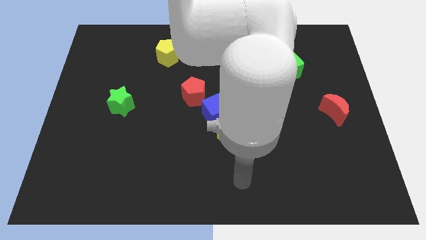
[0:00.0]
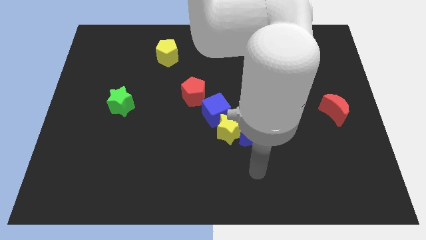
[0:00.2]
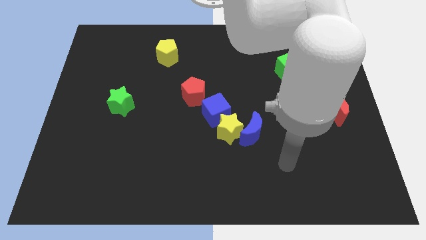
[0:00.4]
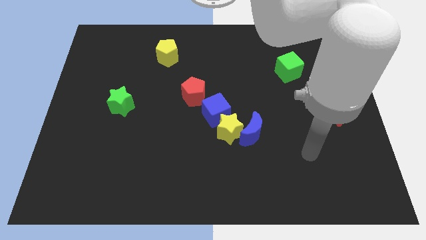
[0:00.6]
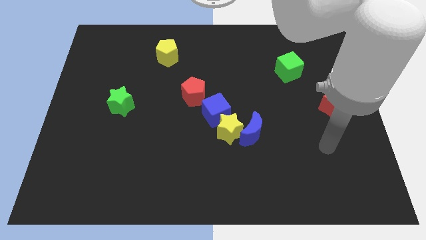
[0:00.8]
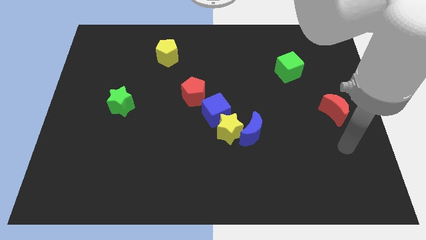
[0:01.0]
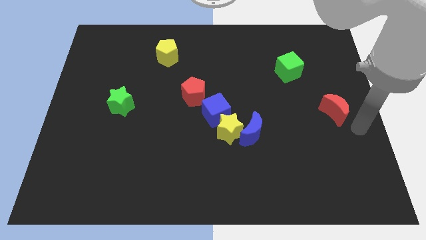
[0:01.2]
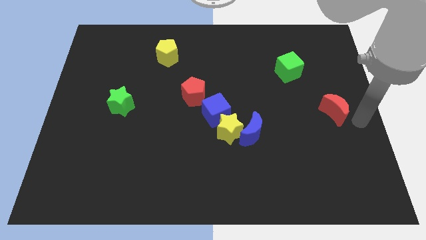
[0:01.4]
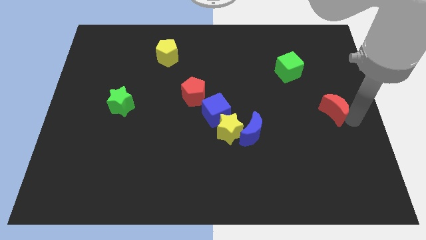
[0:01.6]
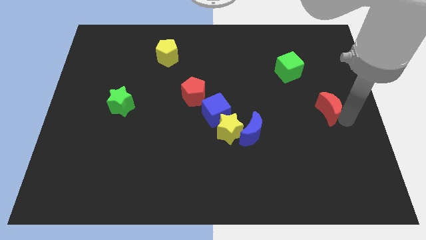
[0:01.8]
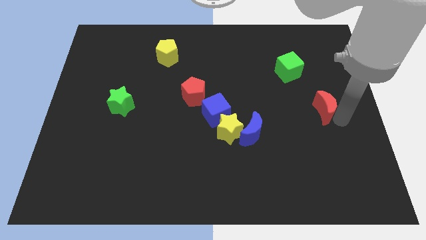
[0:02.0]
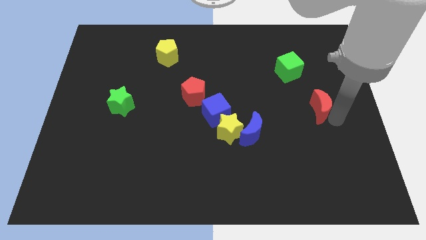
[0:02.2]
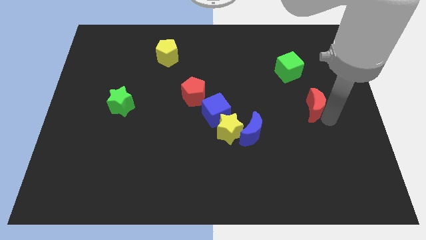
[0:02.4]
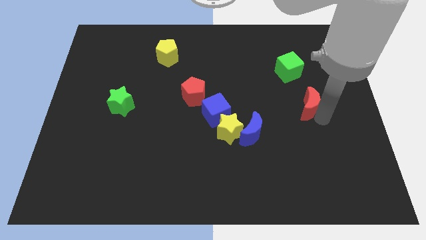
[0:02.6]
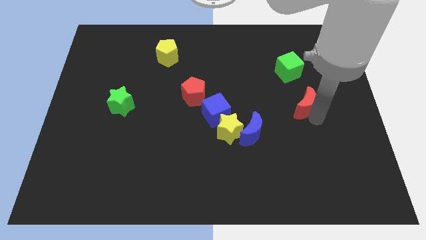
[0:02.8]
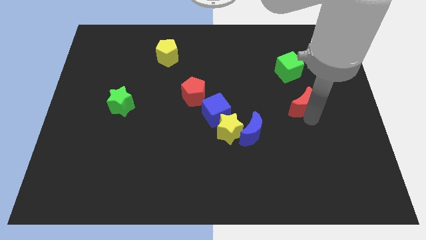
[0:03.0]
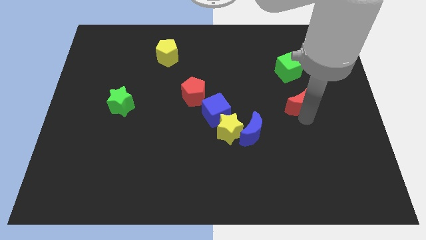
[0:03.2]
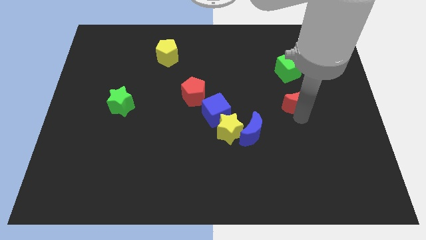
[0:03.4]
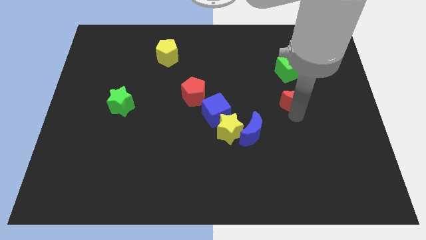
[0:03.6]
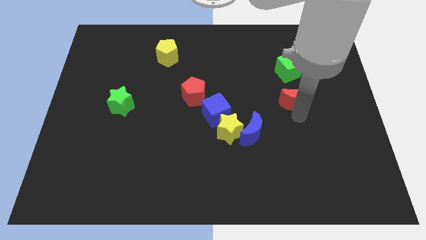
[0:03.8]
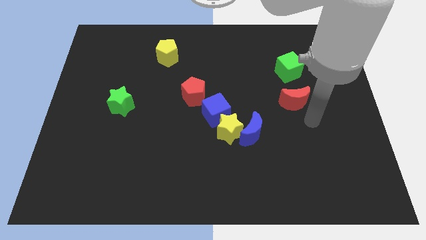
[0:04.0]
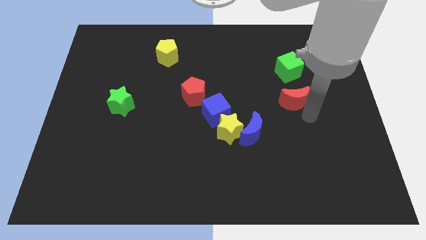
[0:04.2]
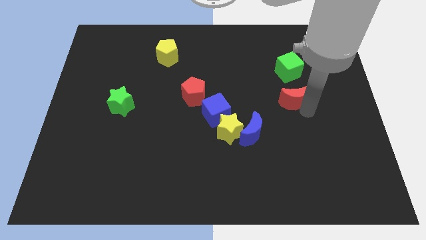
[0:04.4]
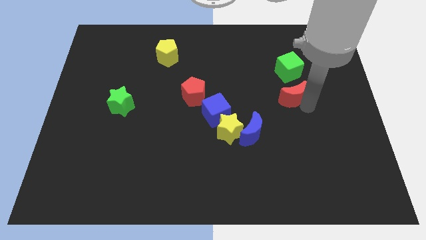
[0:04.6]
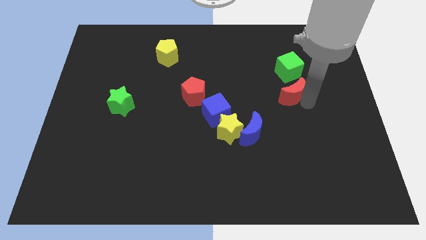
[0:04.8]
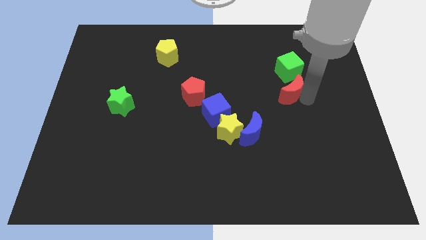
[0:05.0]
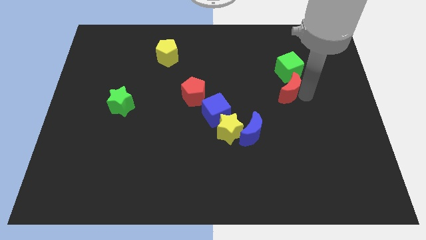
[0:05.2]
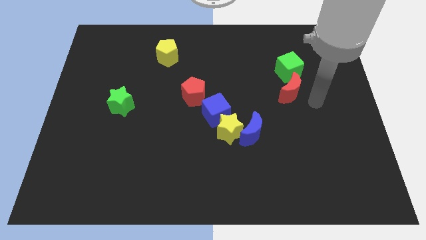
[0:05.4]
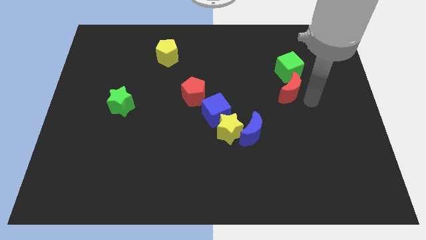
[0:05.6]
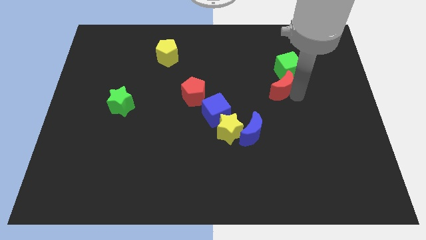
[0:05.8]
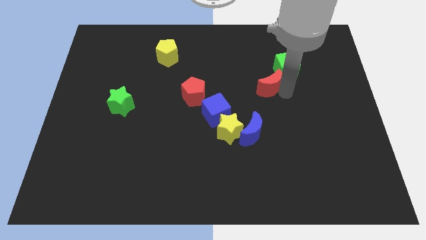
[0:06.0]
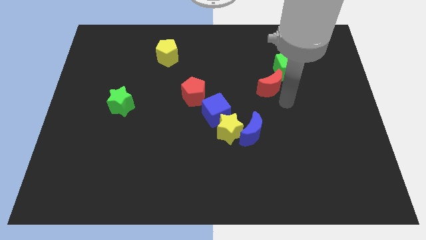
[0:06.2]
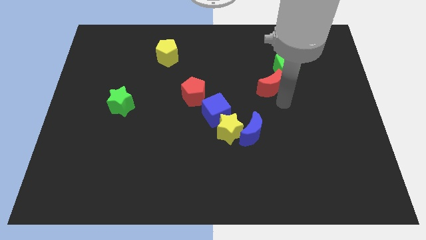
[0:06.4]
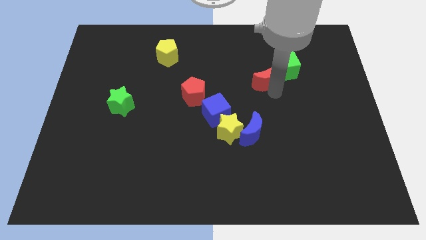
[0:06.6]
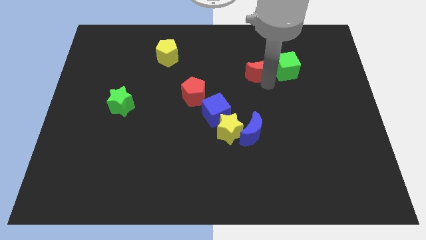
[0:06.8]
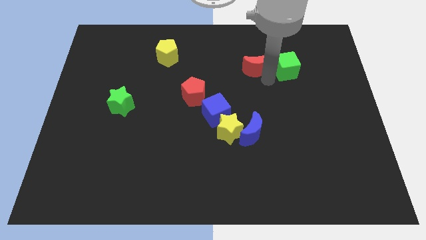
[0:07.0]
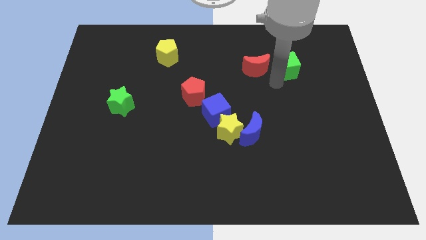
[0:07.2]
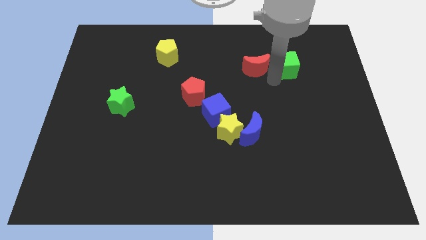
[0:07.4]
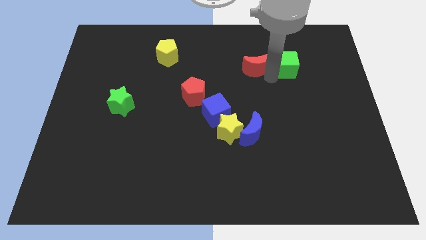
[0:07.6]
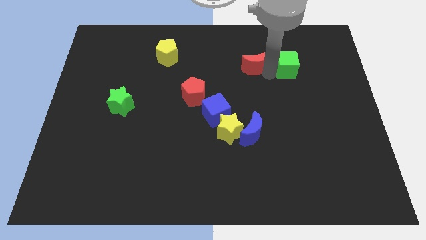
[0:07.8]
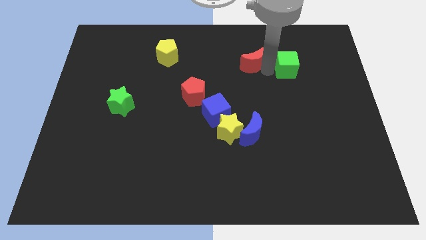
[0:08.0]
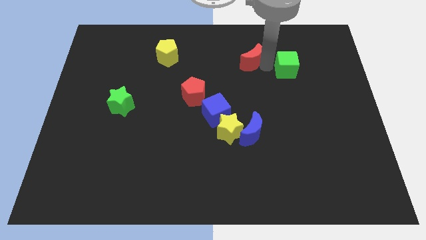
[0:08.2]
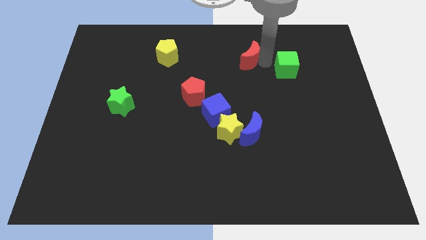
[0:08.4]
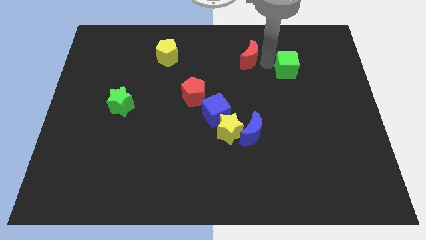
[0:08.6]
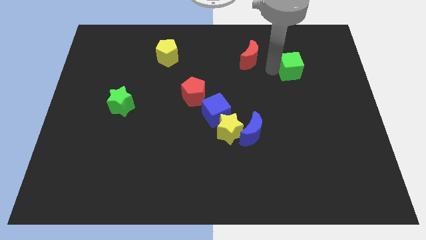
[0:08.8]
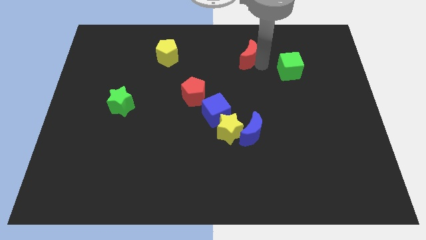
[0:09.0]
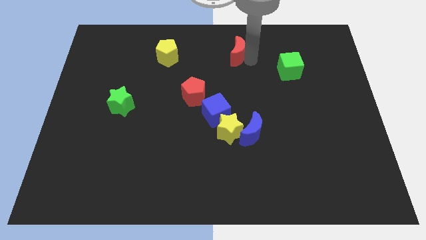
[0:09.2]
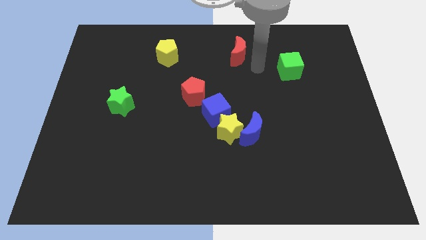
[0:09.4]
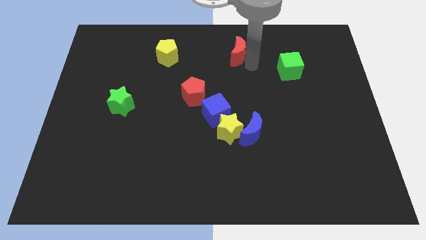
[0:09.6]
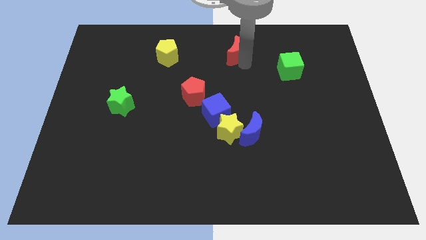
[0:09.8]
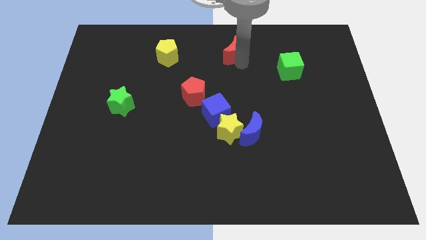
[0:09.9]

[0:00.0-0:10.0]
push the red moon to the towards your base

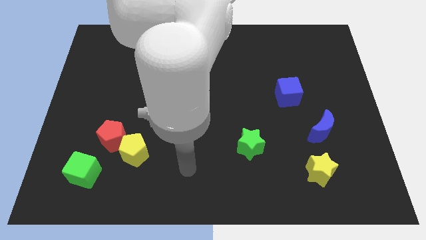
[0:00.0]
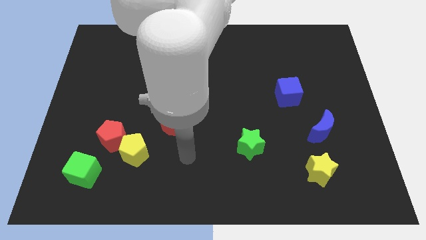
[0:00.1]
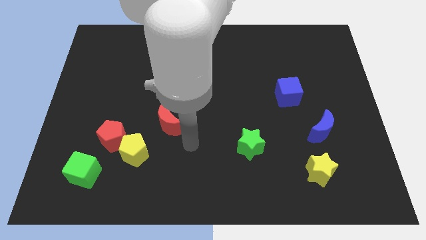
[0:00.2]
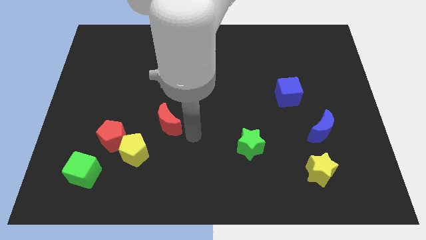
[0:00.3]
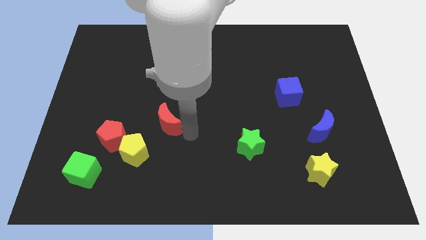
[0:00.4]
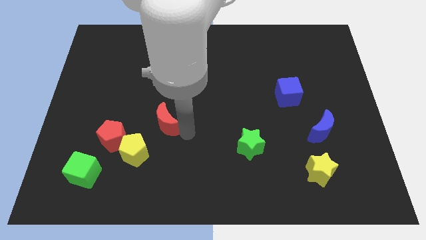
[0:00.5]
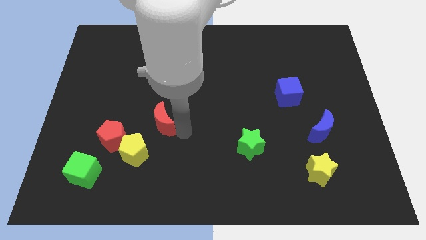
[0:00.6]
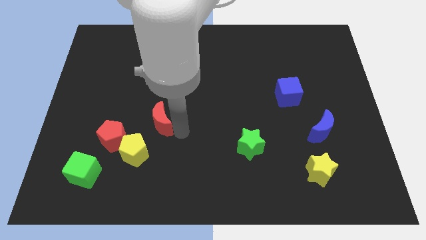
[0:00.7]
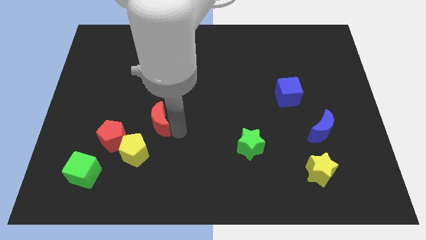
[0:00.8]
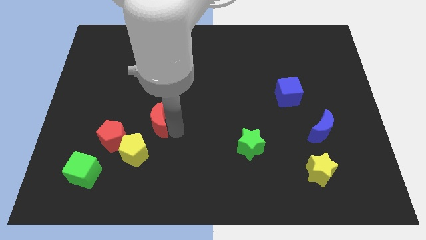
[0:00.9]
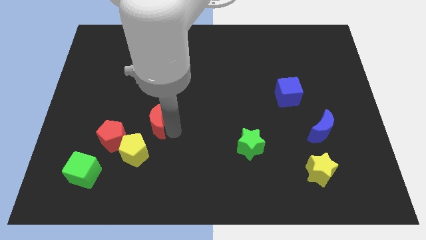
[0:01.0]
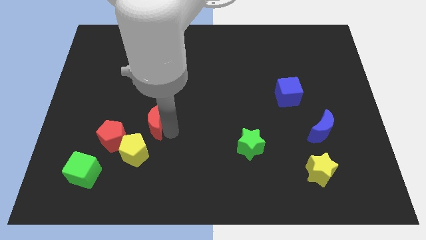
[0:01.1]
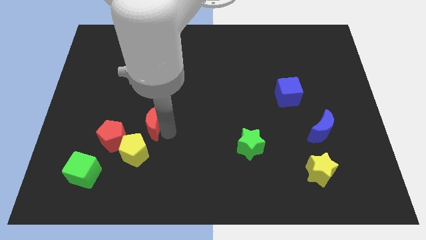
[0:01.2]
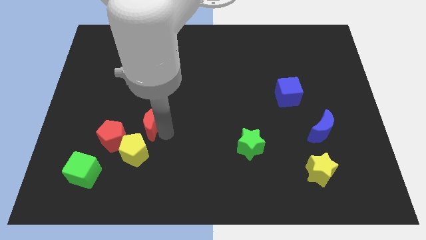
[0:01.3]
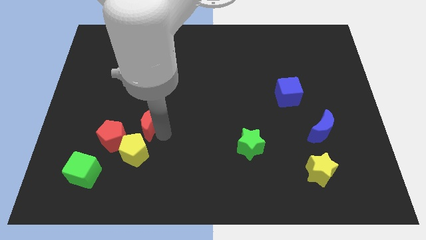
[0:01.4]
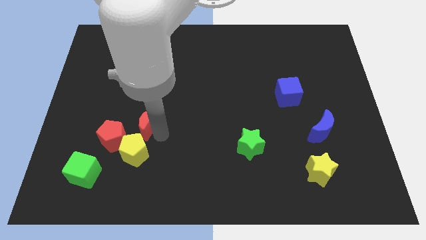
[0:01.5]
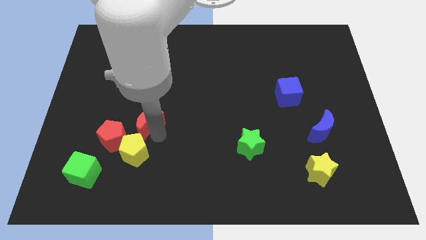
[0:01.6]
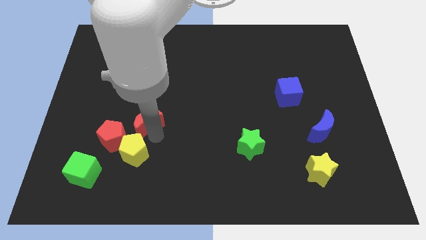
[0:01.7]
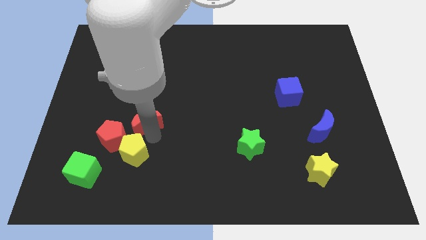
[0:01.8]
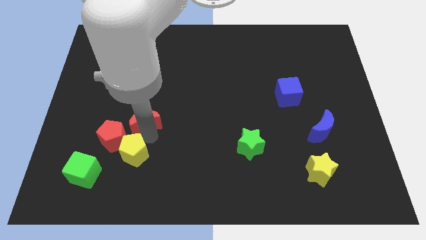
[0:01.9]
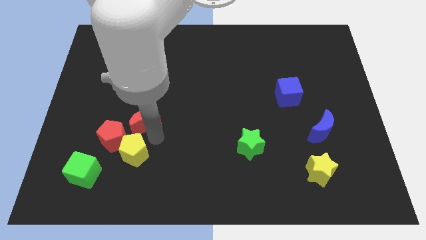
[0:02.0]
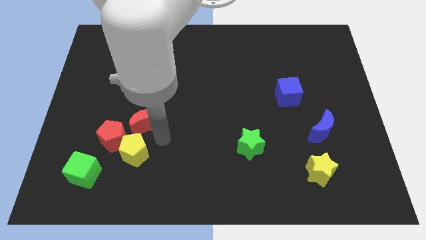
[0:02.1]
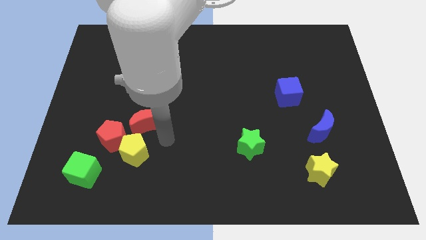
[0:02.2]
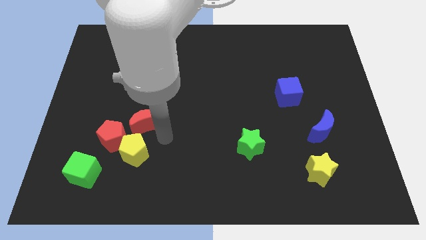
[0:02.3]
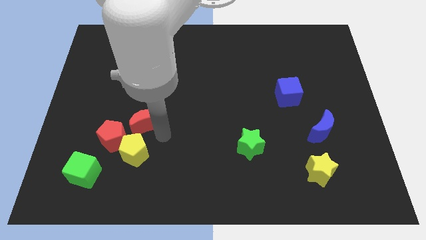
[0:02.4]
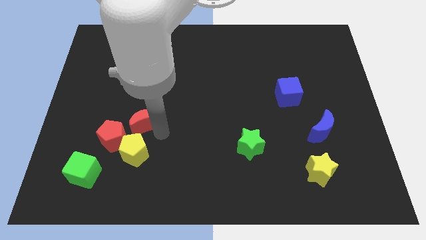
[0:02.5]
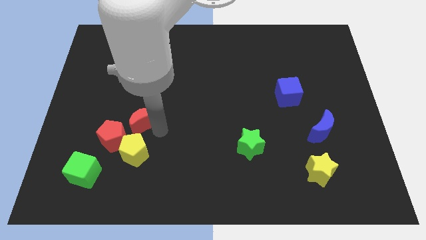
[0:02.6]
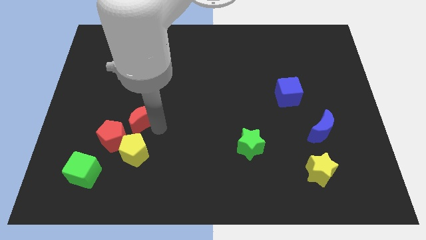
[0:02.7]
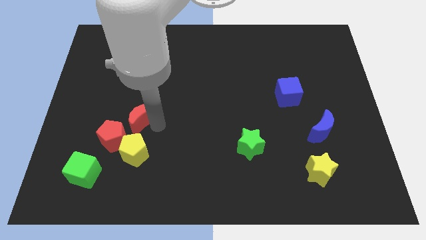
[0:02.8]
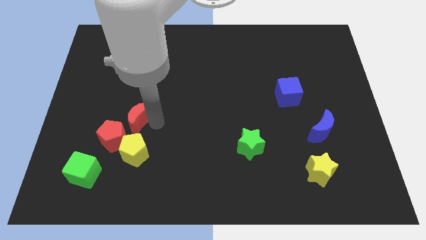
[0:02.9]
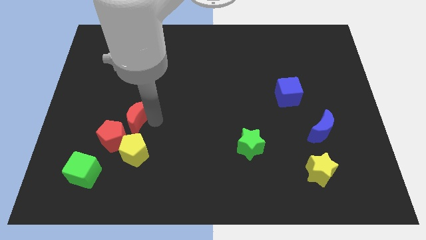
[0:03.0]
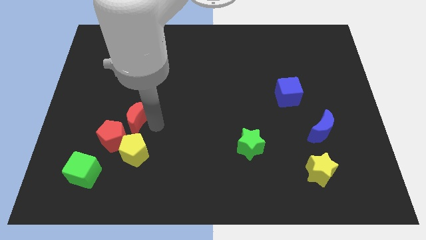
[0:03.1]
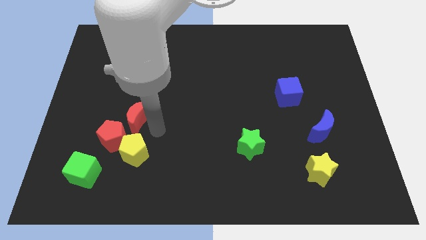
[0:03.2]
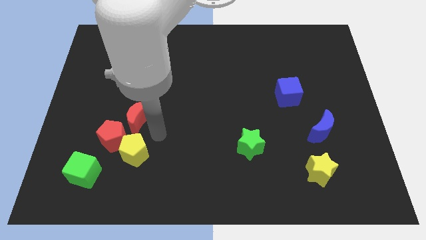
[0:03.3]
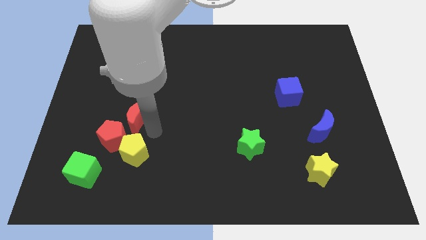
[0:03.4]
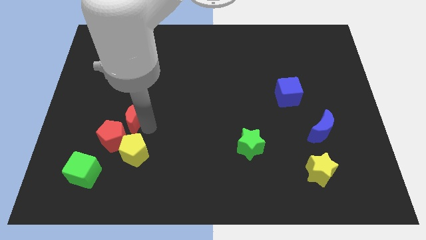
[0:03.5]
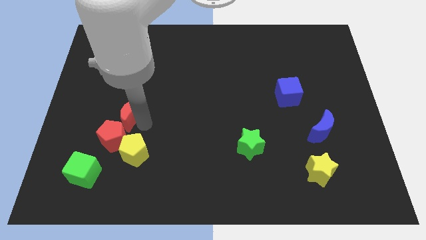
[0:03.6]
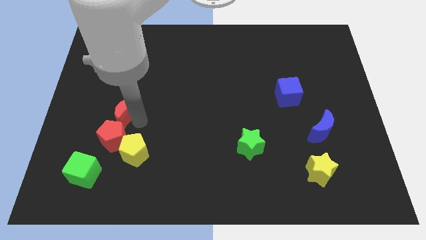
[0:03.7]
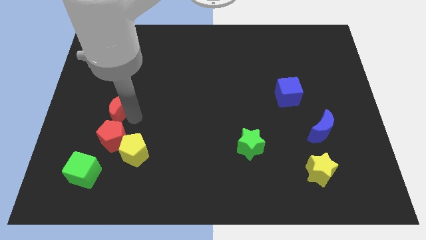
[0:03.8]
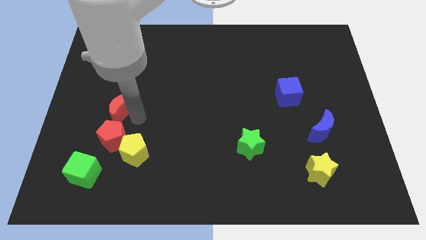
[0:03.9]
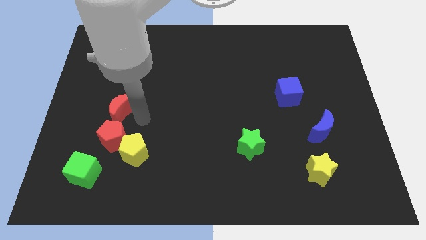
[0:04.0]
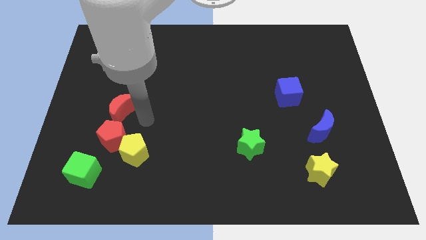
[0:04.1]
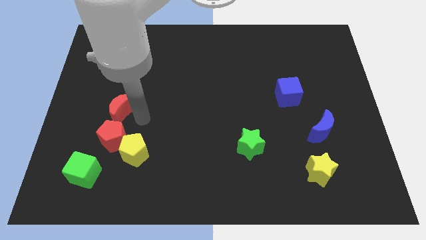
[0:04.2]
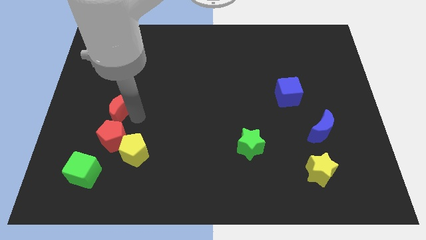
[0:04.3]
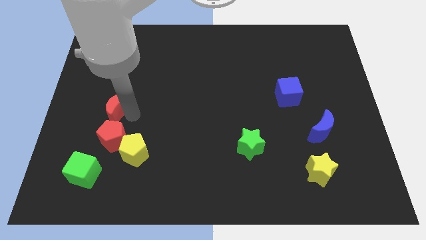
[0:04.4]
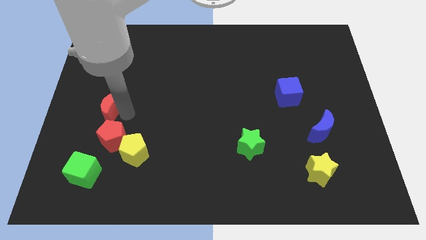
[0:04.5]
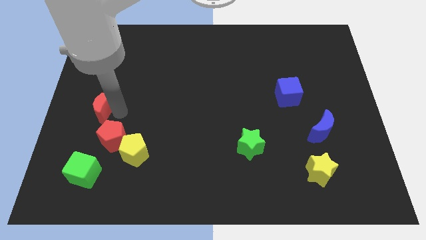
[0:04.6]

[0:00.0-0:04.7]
put the red moon to the center left
